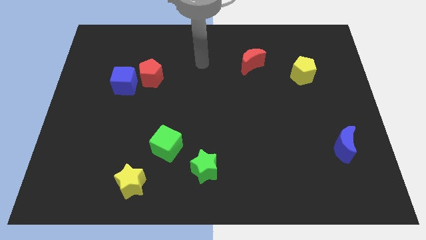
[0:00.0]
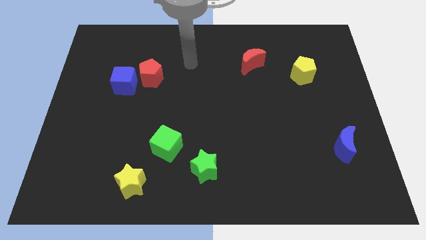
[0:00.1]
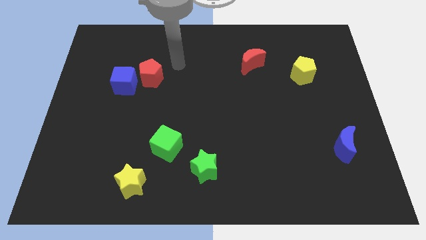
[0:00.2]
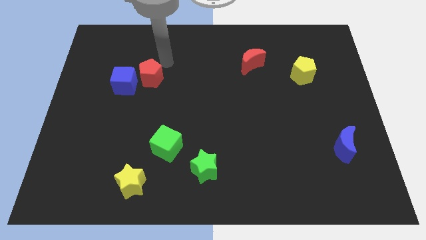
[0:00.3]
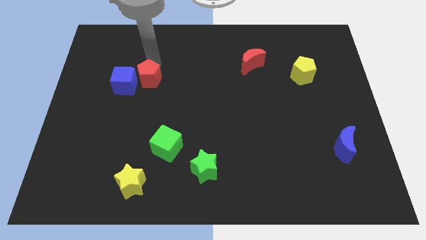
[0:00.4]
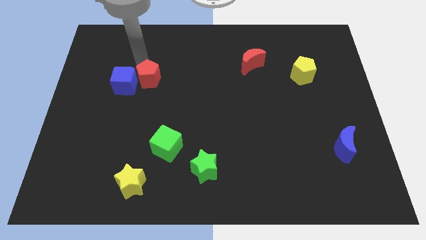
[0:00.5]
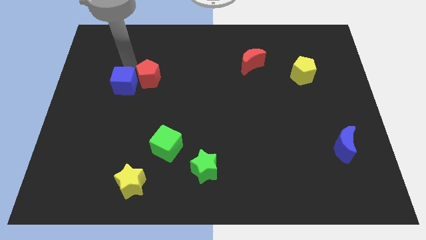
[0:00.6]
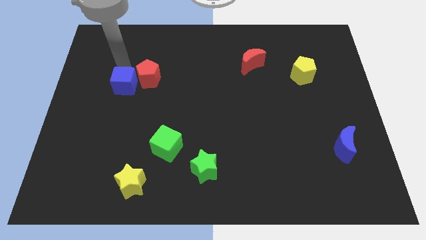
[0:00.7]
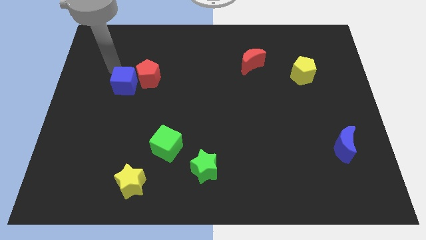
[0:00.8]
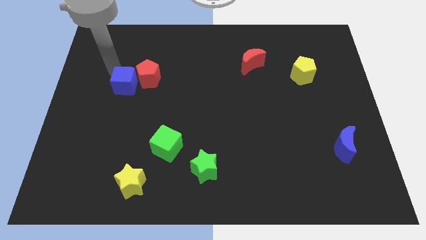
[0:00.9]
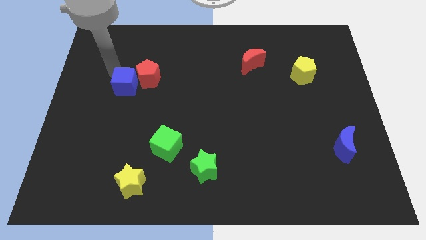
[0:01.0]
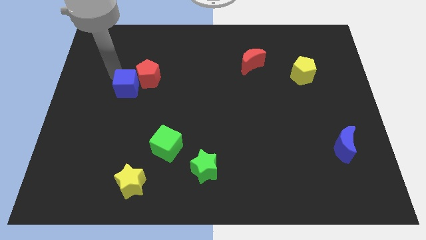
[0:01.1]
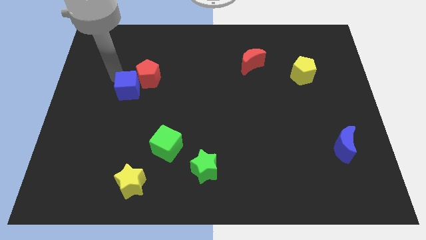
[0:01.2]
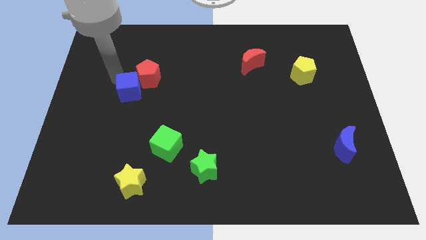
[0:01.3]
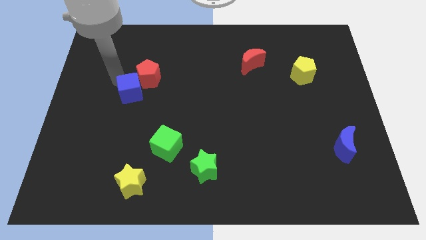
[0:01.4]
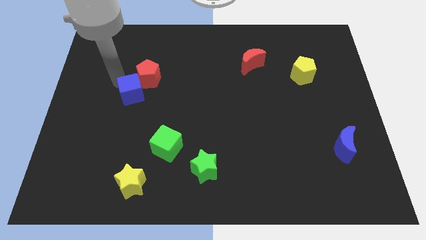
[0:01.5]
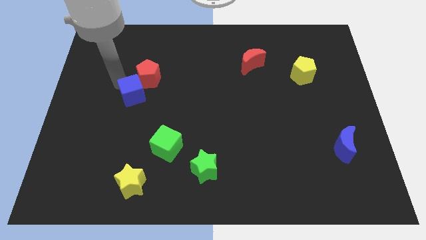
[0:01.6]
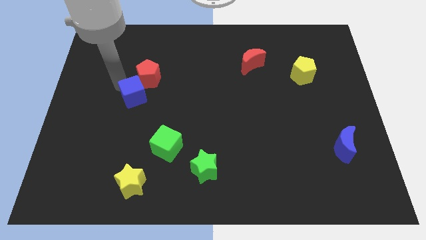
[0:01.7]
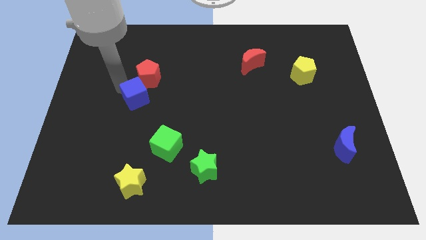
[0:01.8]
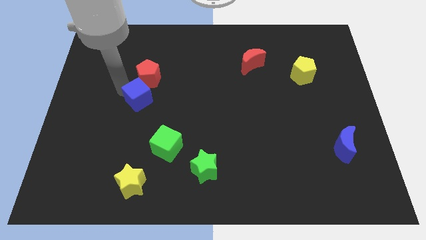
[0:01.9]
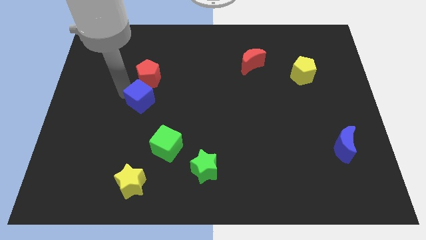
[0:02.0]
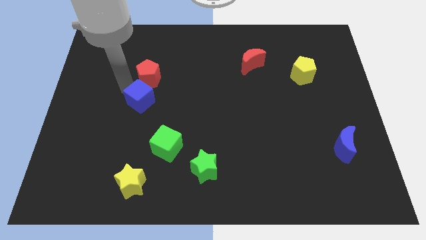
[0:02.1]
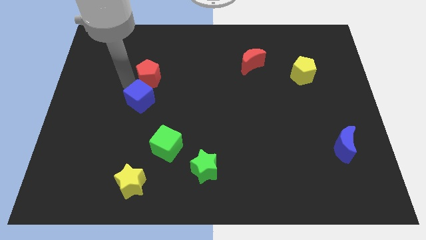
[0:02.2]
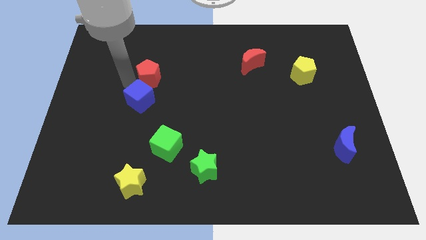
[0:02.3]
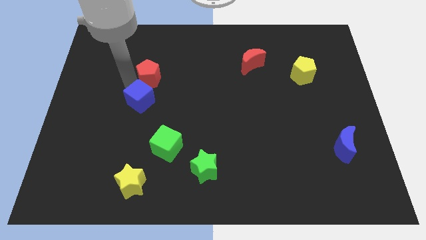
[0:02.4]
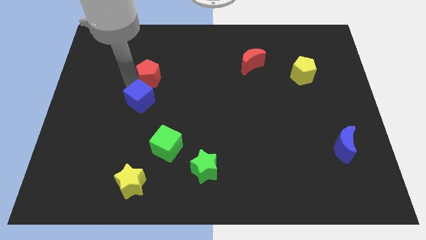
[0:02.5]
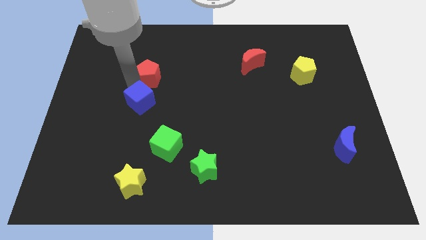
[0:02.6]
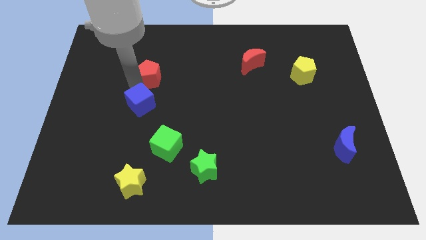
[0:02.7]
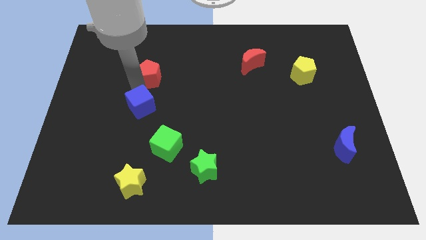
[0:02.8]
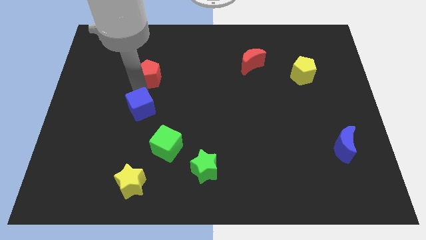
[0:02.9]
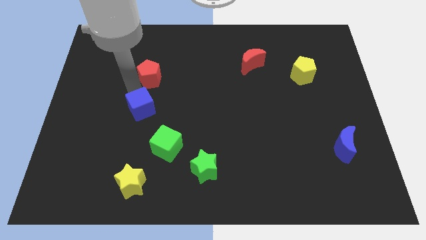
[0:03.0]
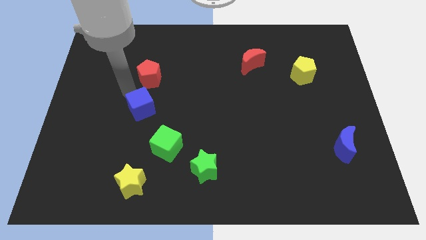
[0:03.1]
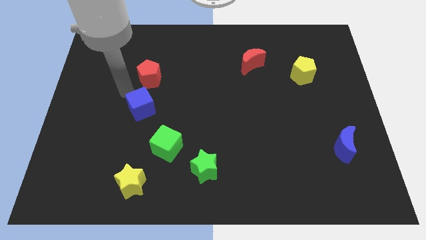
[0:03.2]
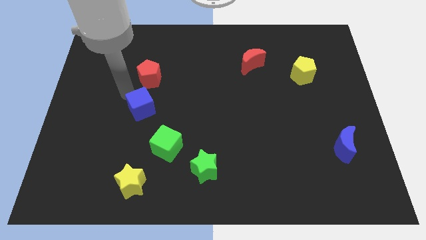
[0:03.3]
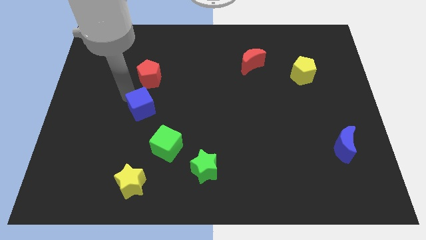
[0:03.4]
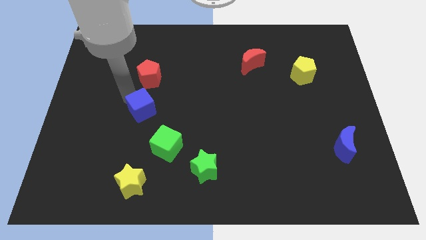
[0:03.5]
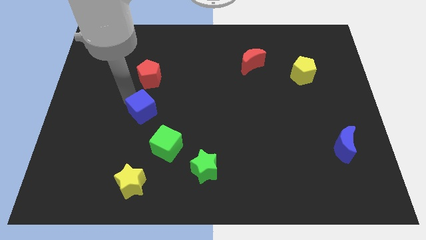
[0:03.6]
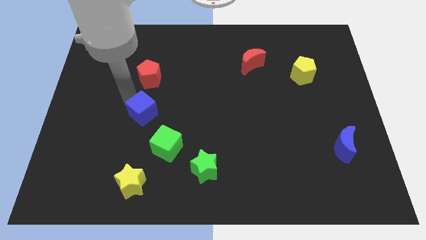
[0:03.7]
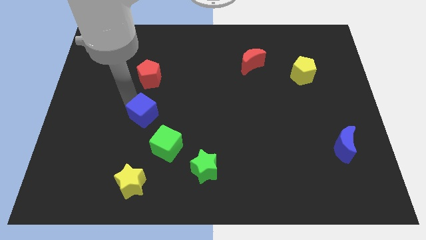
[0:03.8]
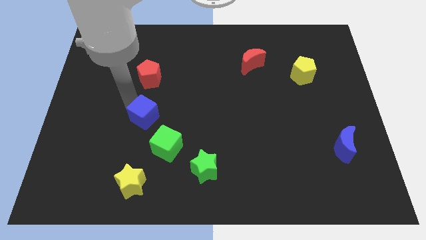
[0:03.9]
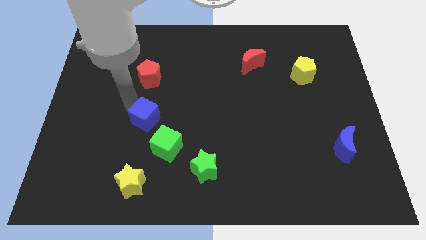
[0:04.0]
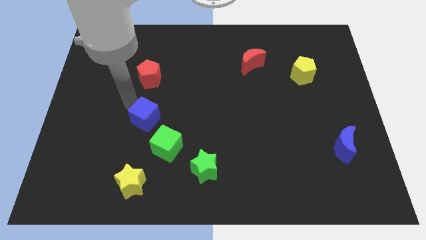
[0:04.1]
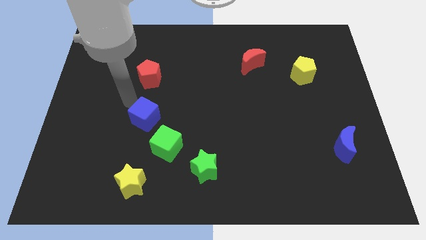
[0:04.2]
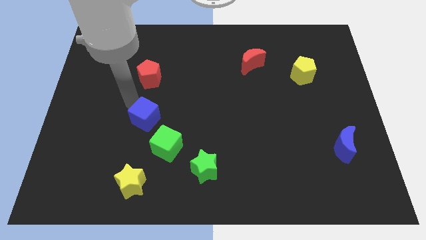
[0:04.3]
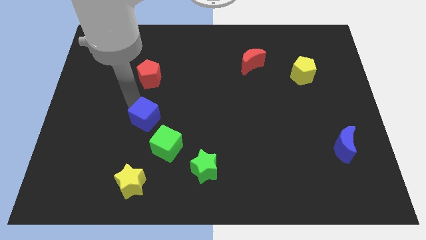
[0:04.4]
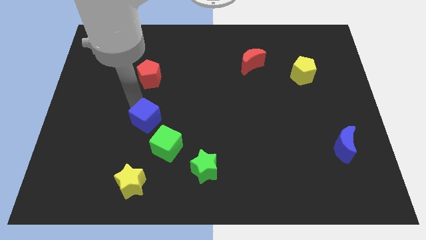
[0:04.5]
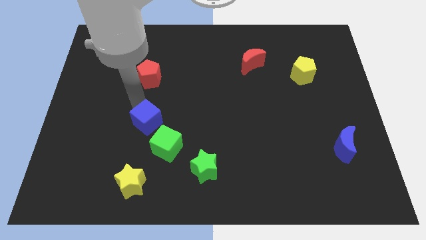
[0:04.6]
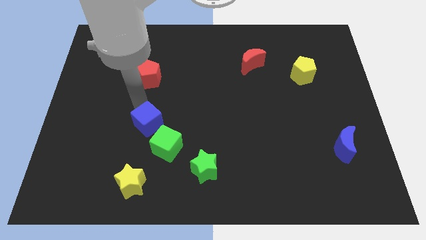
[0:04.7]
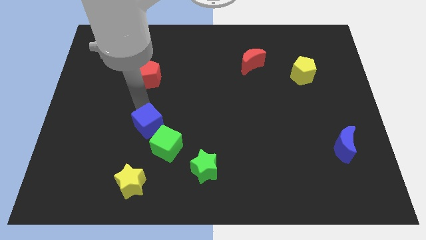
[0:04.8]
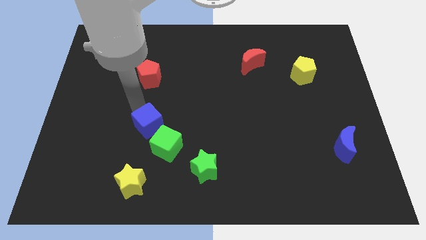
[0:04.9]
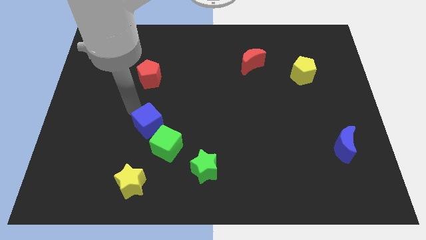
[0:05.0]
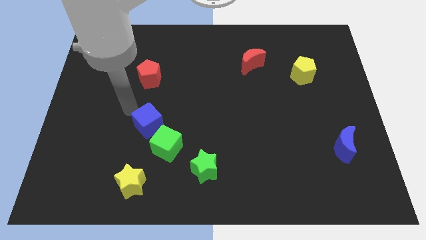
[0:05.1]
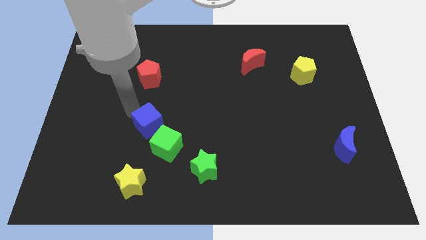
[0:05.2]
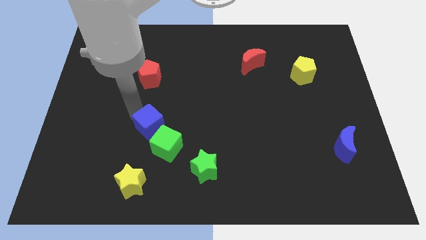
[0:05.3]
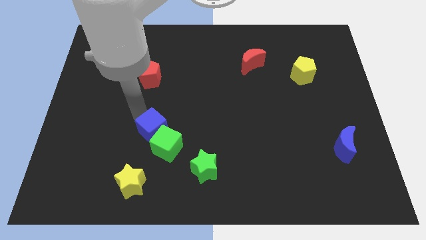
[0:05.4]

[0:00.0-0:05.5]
move the blue cube to the green cube

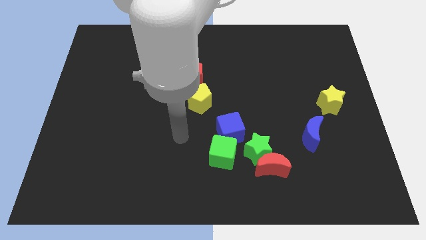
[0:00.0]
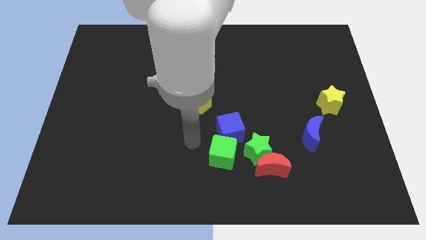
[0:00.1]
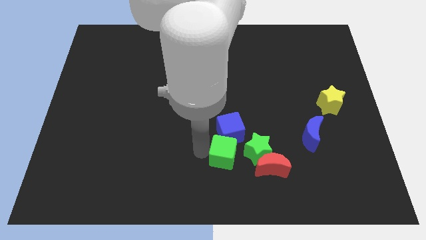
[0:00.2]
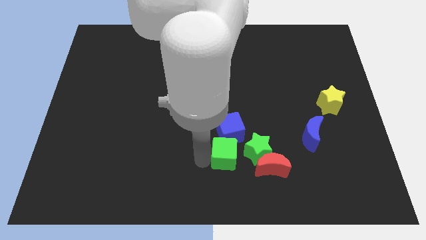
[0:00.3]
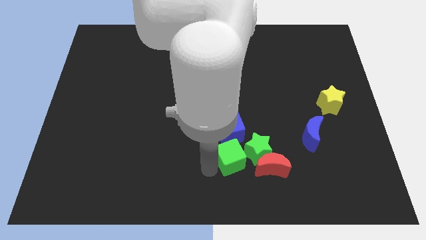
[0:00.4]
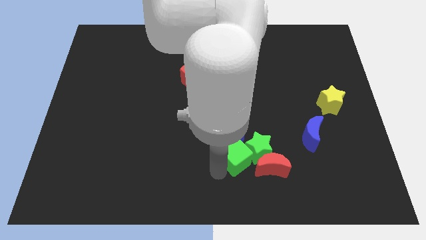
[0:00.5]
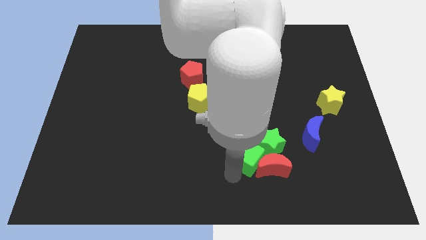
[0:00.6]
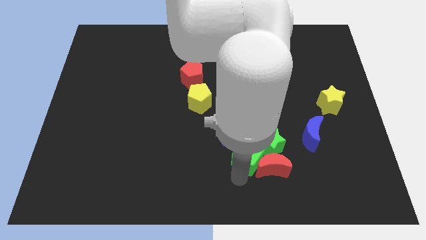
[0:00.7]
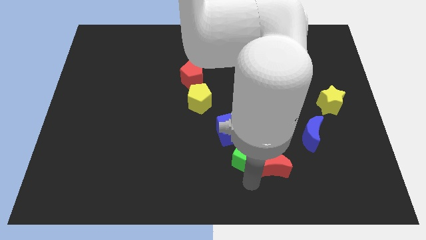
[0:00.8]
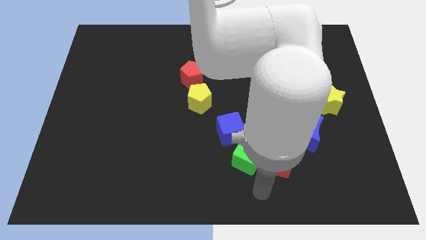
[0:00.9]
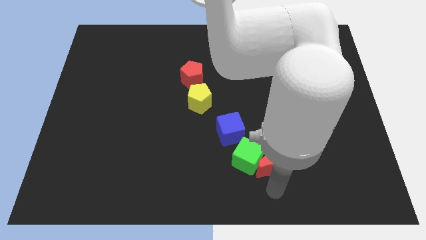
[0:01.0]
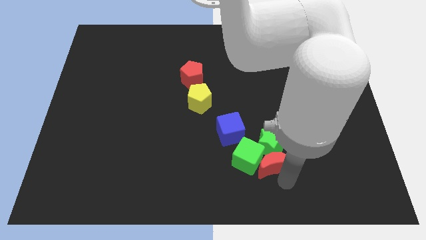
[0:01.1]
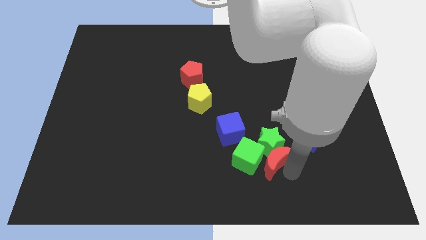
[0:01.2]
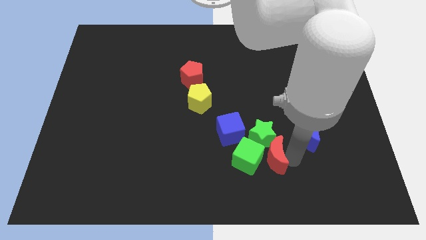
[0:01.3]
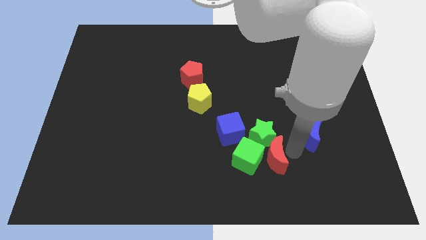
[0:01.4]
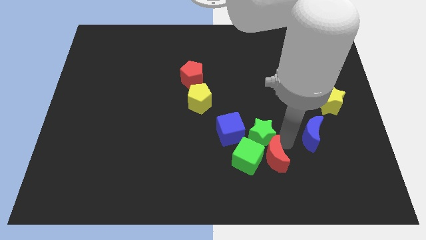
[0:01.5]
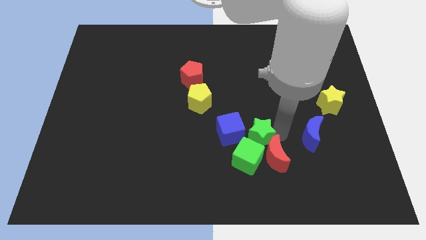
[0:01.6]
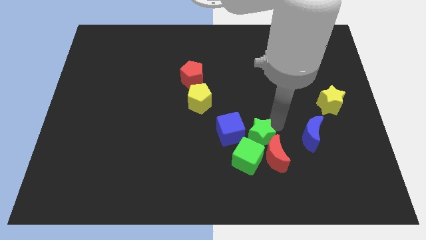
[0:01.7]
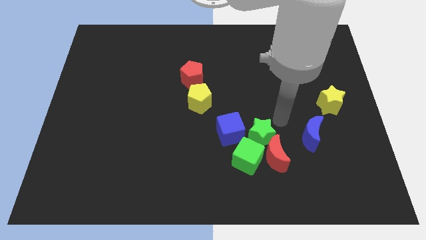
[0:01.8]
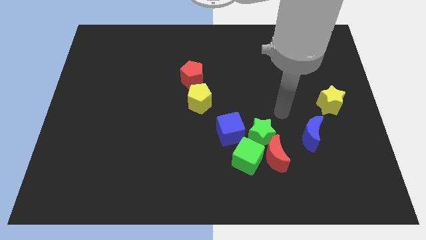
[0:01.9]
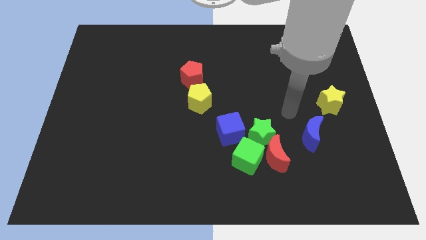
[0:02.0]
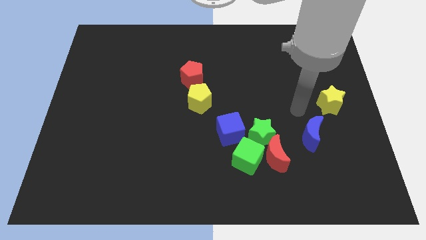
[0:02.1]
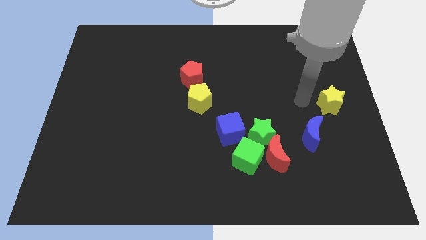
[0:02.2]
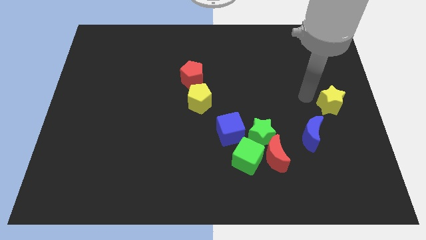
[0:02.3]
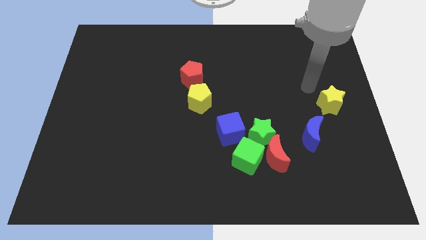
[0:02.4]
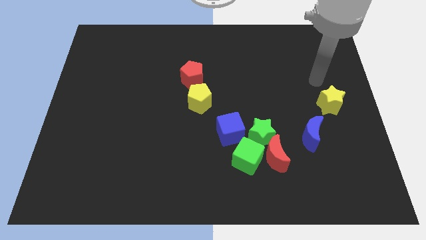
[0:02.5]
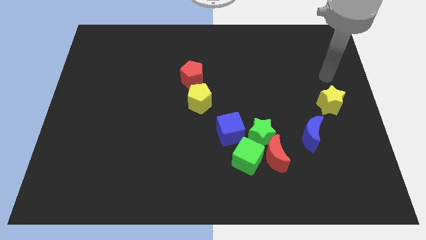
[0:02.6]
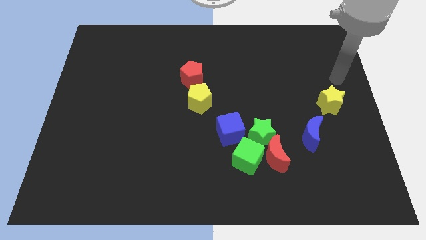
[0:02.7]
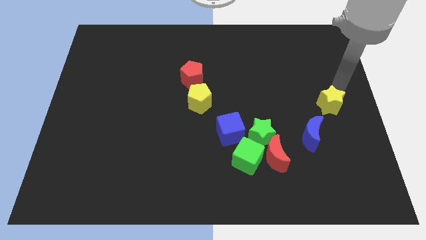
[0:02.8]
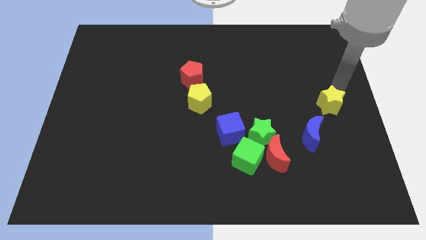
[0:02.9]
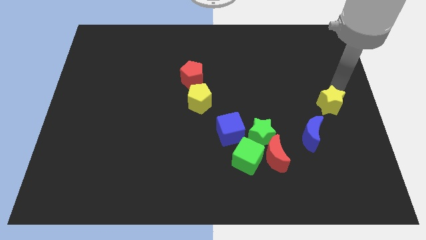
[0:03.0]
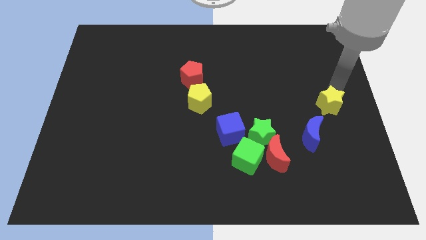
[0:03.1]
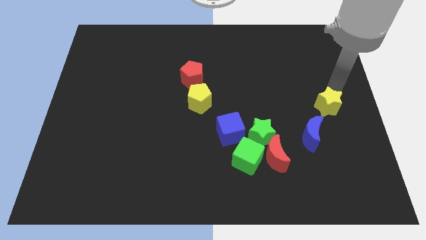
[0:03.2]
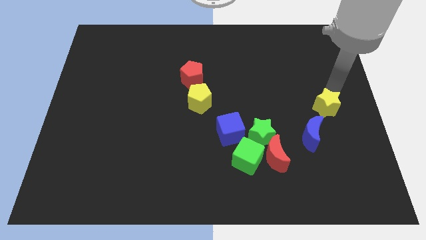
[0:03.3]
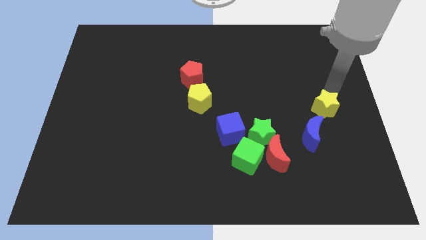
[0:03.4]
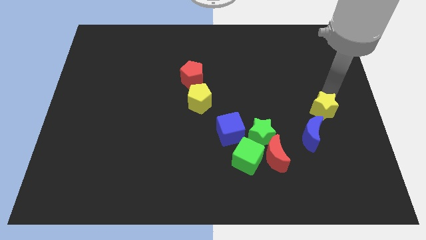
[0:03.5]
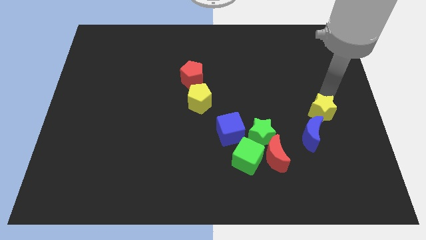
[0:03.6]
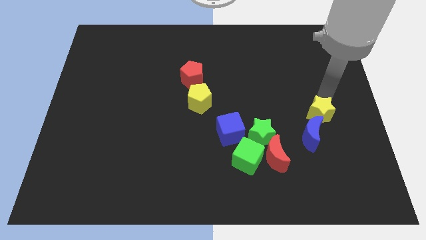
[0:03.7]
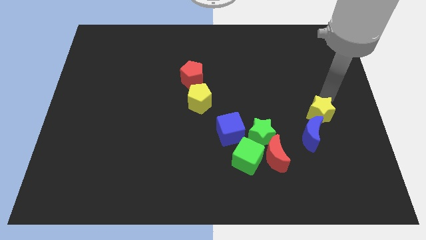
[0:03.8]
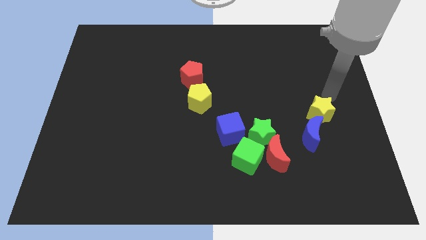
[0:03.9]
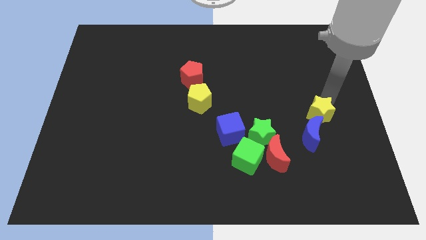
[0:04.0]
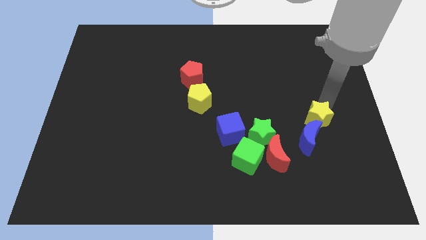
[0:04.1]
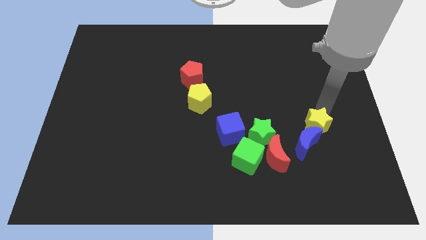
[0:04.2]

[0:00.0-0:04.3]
move the yellow star close to the blue moon
